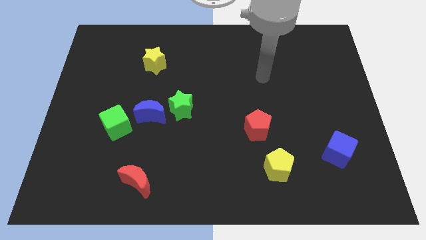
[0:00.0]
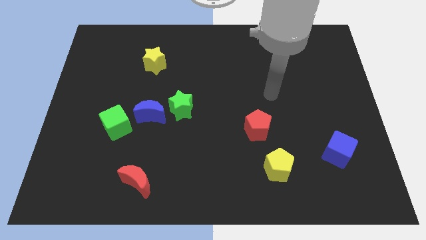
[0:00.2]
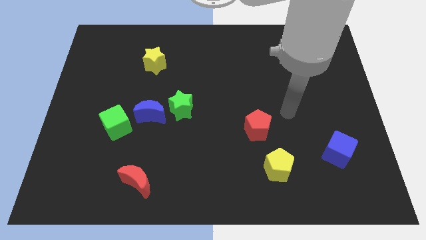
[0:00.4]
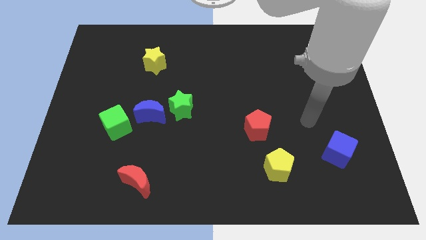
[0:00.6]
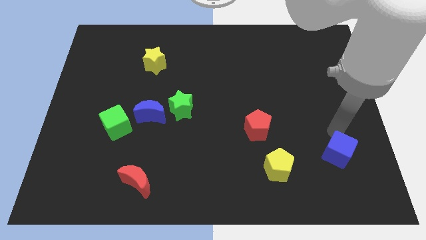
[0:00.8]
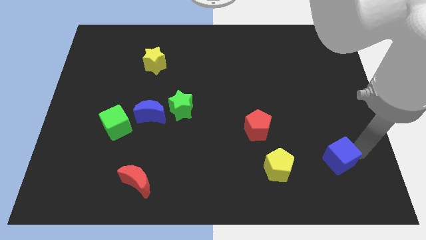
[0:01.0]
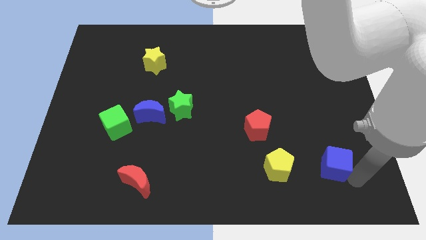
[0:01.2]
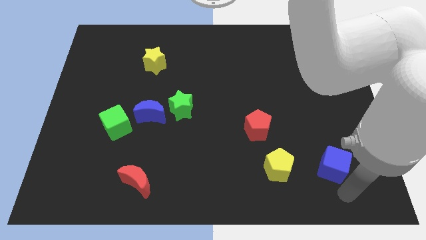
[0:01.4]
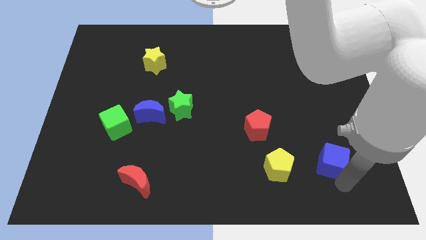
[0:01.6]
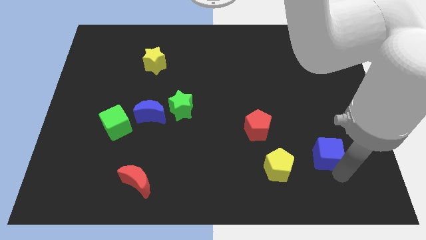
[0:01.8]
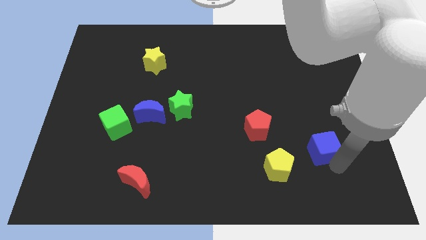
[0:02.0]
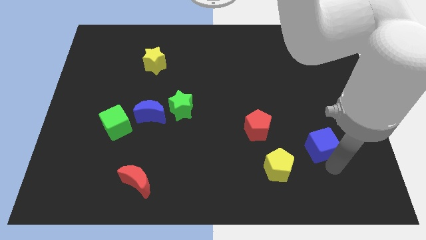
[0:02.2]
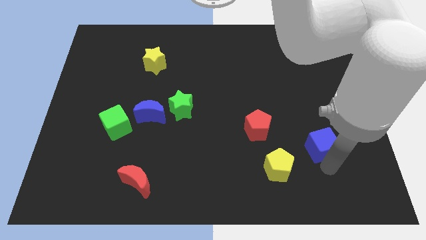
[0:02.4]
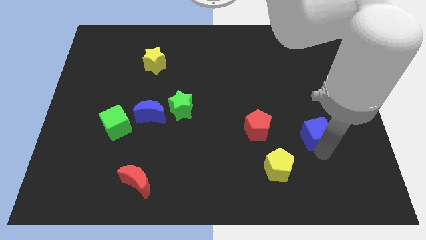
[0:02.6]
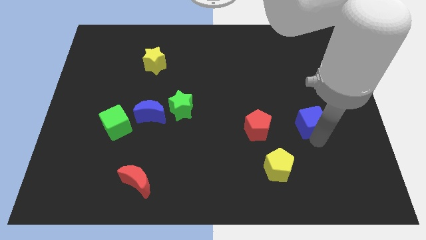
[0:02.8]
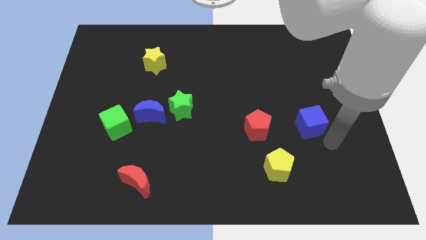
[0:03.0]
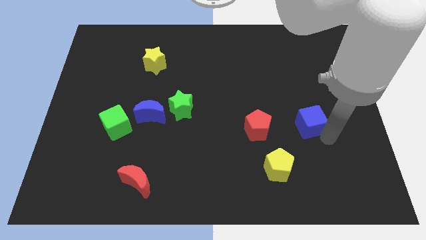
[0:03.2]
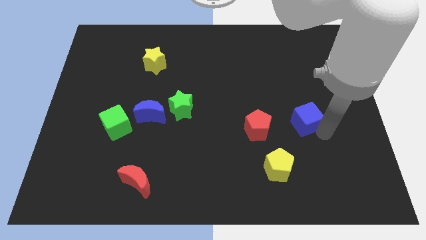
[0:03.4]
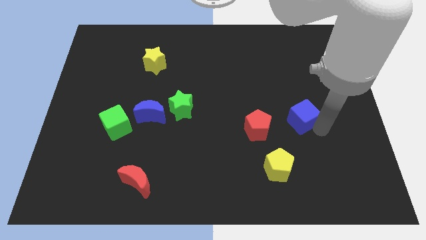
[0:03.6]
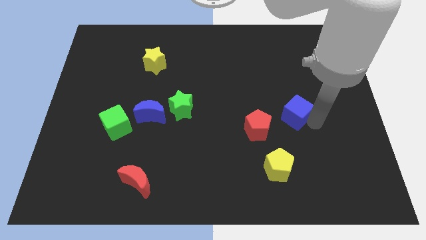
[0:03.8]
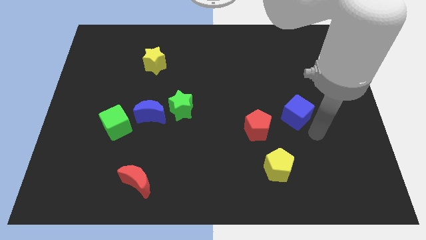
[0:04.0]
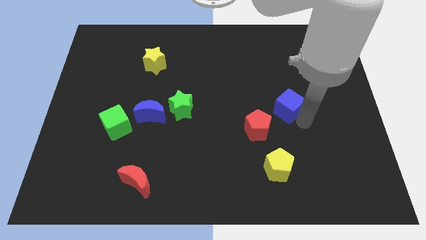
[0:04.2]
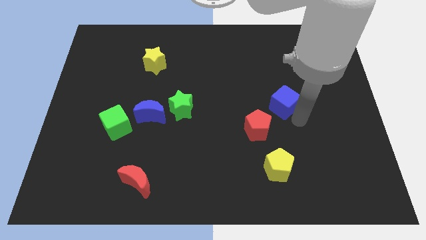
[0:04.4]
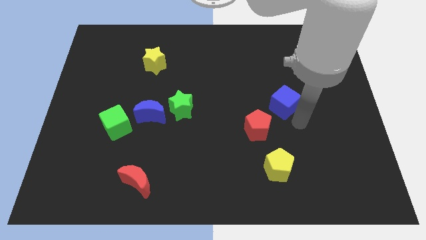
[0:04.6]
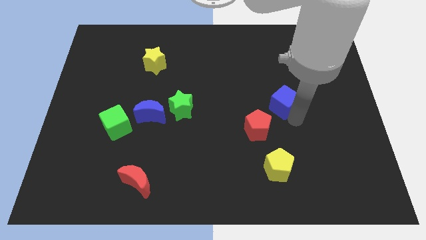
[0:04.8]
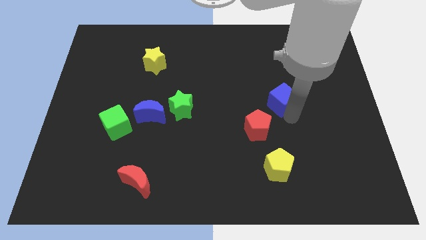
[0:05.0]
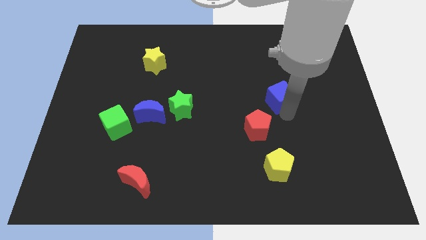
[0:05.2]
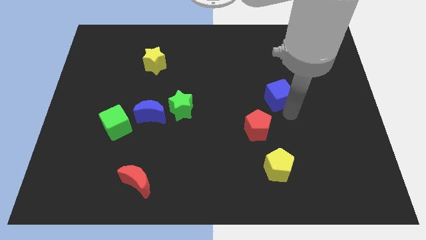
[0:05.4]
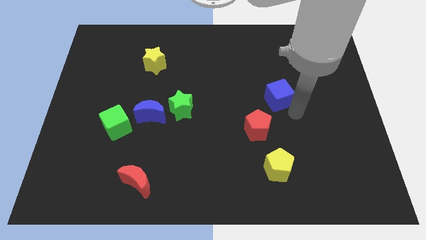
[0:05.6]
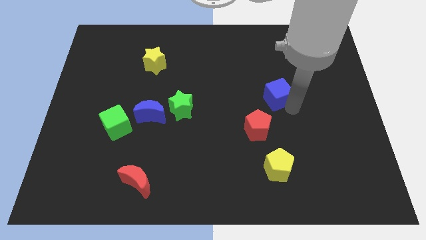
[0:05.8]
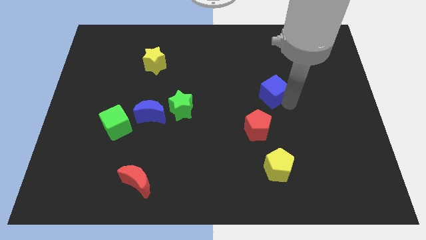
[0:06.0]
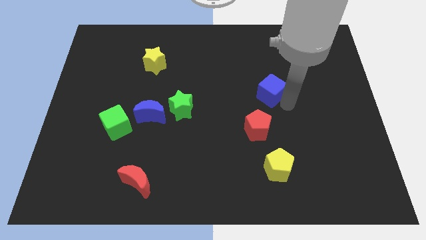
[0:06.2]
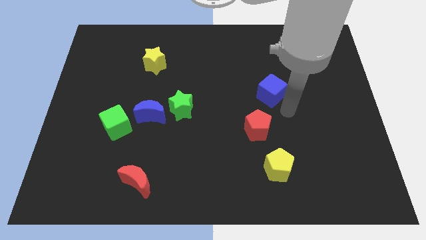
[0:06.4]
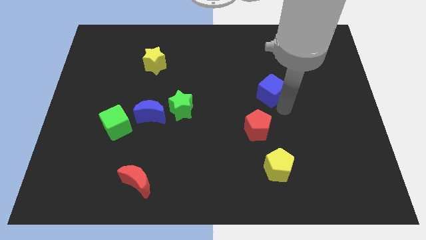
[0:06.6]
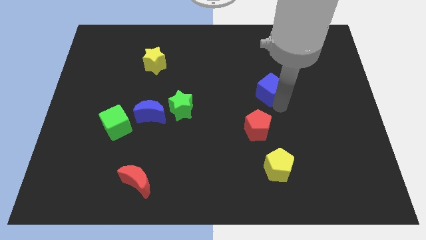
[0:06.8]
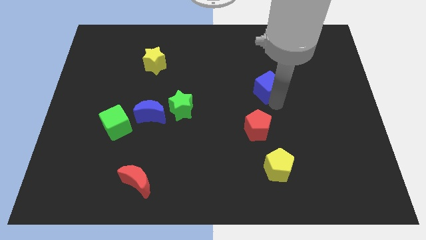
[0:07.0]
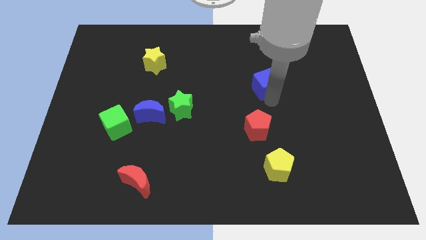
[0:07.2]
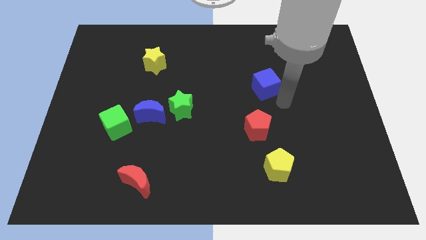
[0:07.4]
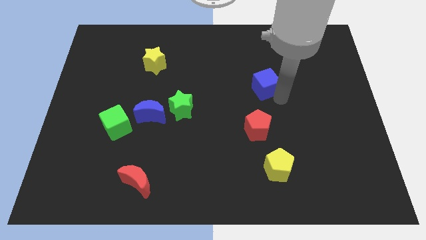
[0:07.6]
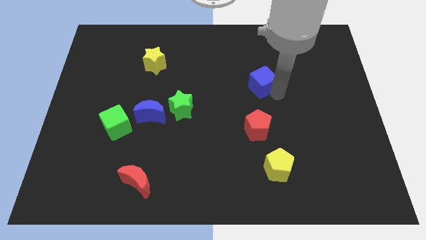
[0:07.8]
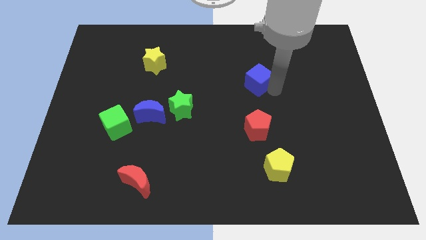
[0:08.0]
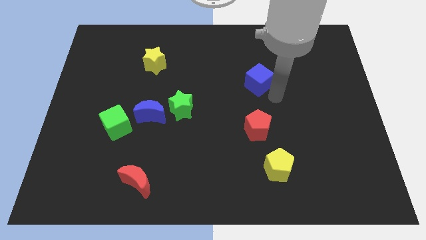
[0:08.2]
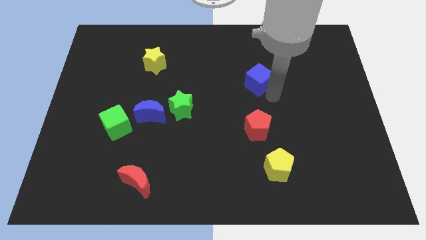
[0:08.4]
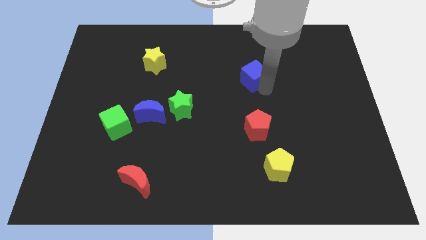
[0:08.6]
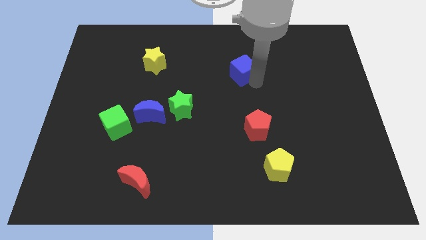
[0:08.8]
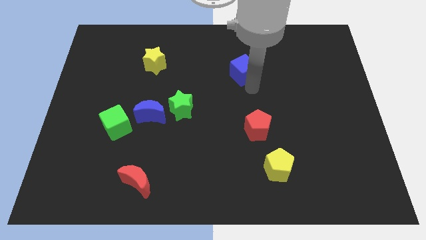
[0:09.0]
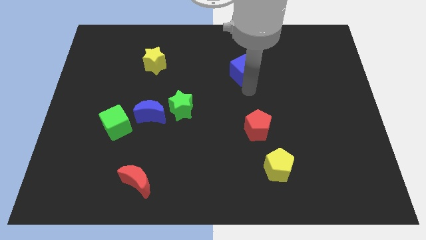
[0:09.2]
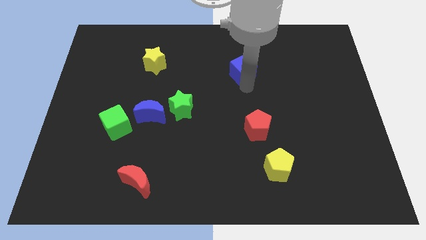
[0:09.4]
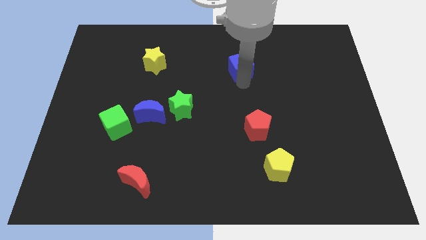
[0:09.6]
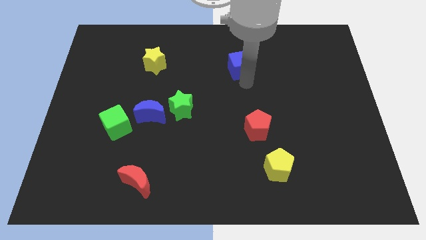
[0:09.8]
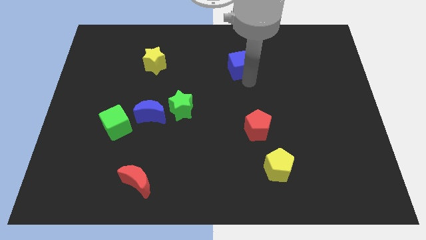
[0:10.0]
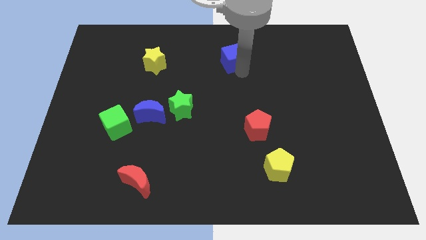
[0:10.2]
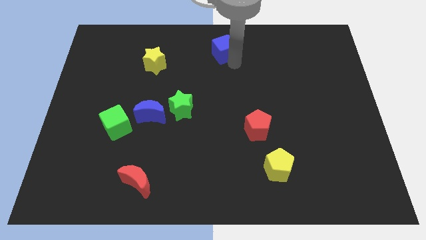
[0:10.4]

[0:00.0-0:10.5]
move the blue cube to the top side

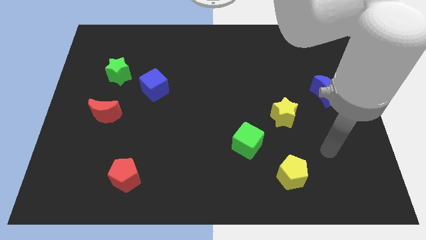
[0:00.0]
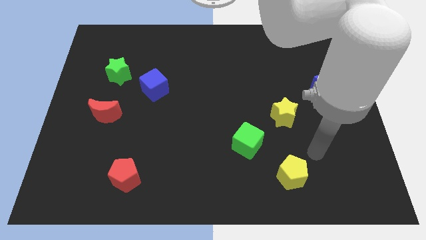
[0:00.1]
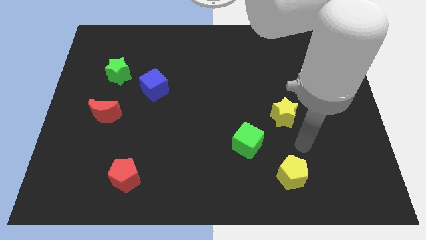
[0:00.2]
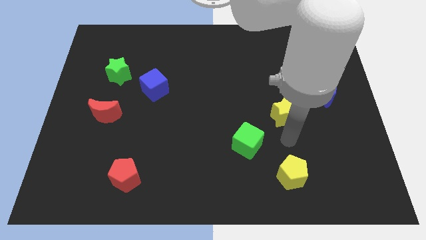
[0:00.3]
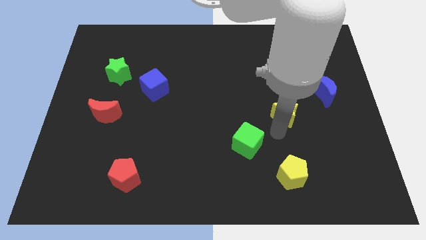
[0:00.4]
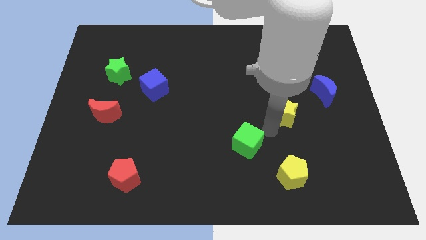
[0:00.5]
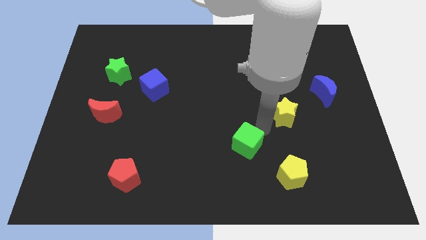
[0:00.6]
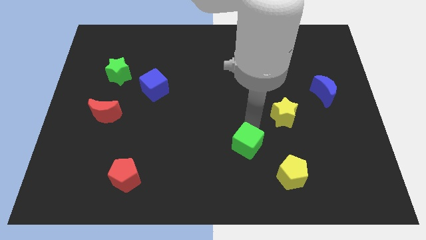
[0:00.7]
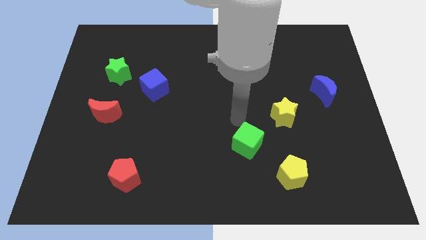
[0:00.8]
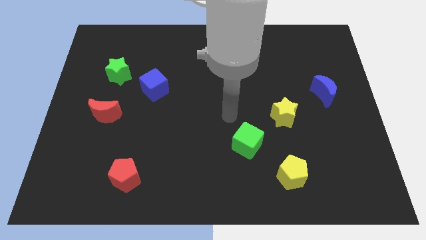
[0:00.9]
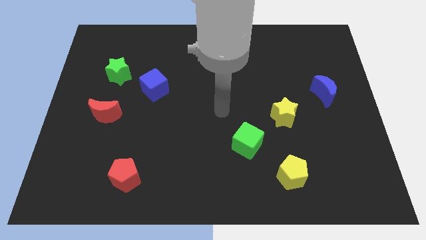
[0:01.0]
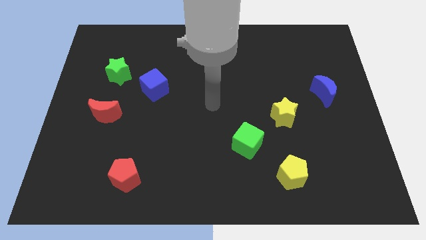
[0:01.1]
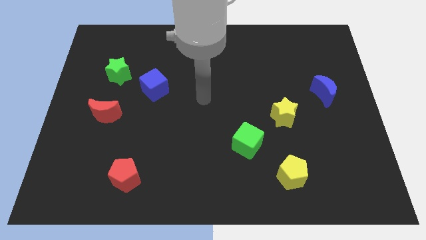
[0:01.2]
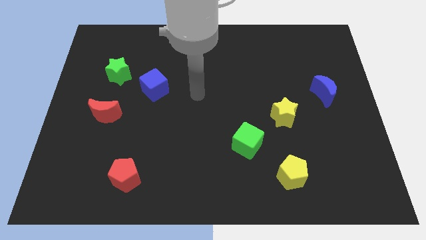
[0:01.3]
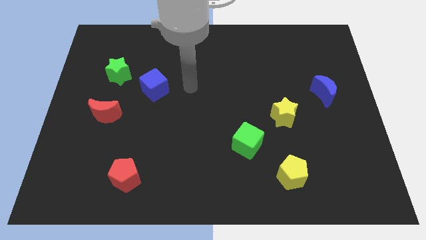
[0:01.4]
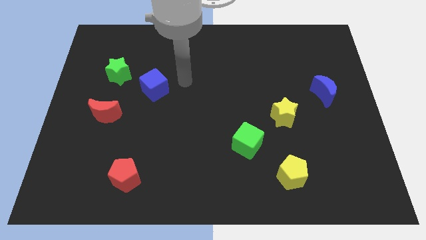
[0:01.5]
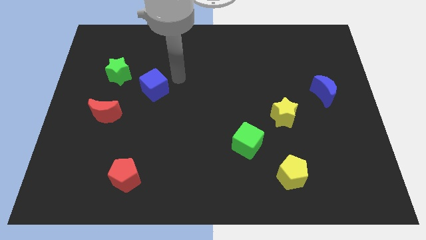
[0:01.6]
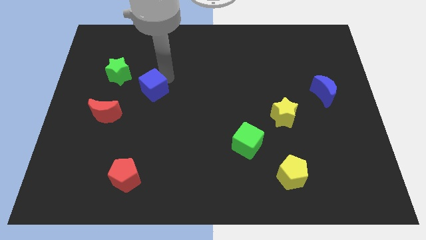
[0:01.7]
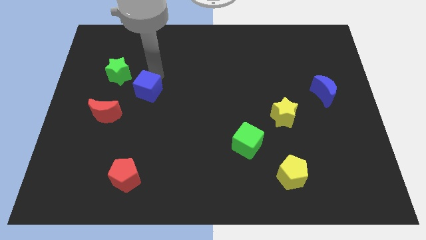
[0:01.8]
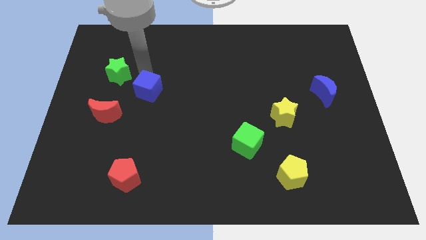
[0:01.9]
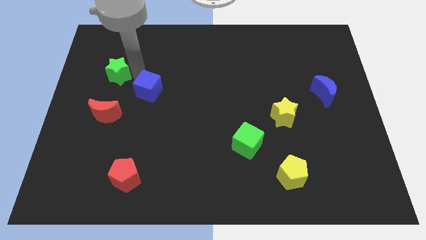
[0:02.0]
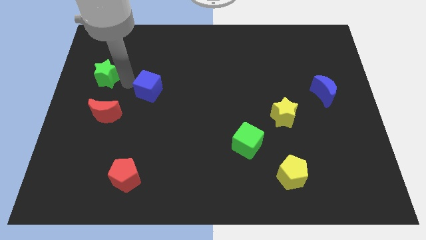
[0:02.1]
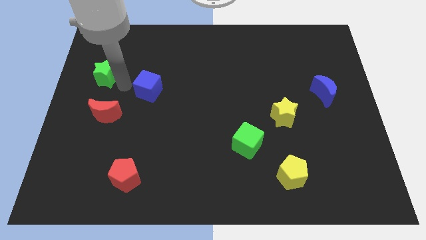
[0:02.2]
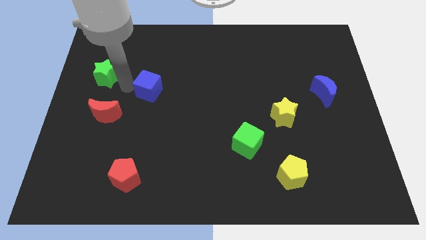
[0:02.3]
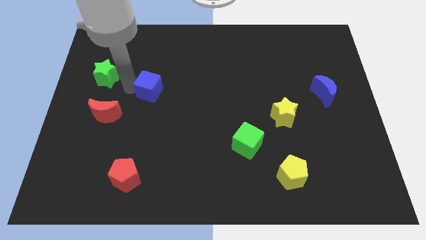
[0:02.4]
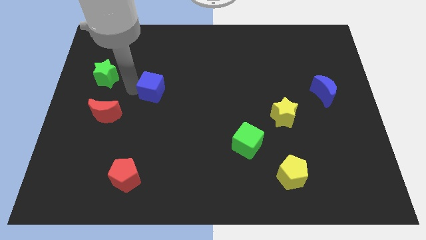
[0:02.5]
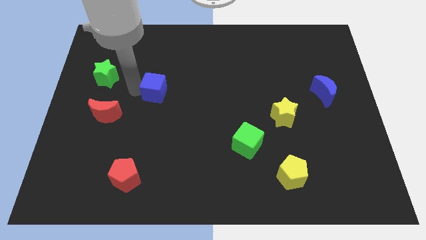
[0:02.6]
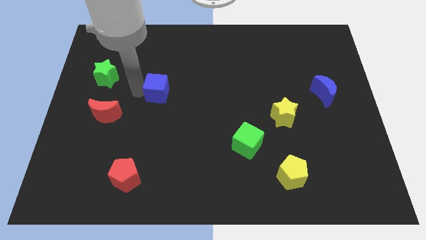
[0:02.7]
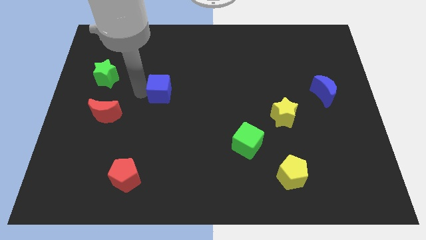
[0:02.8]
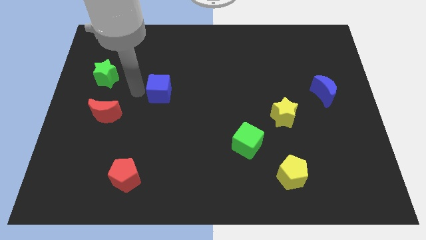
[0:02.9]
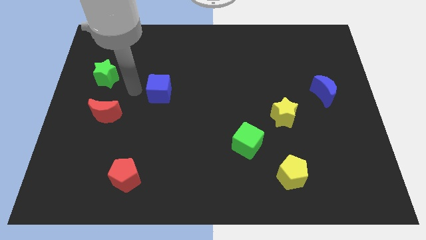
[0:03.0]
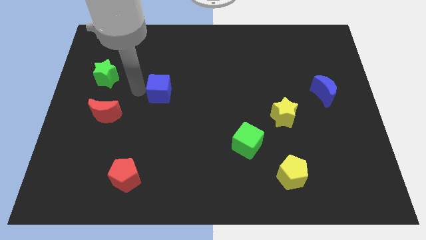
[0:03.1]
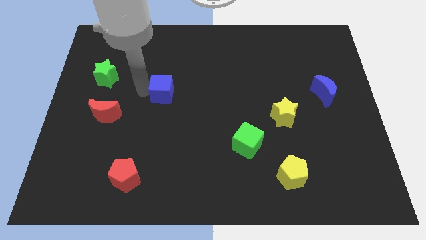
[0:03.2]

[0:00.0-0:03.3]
slide the blue cube to the middle
